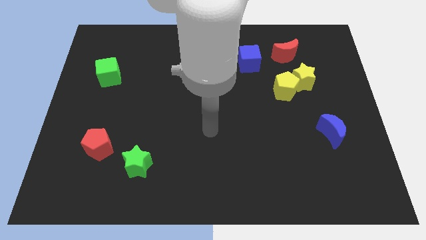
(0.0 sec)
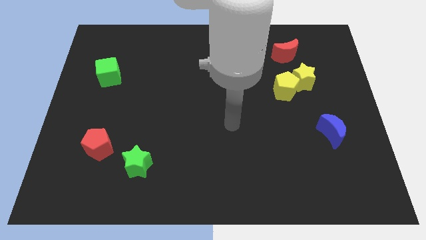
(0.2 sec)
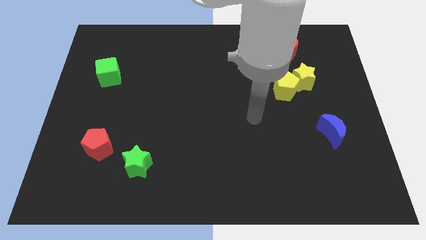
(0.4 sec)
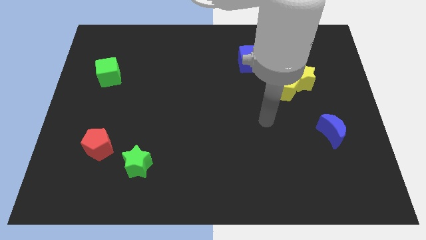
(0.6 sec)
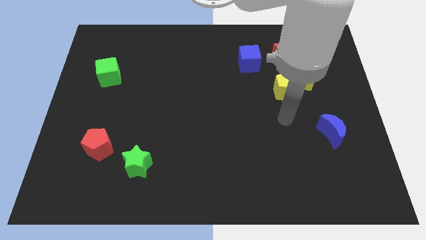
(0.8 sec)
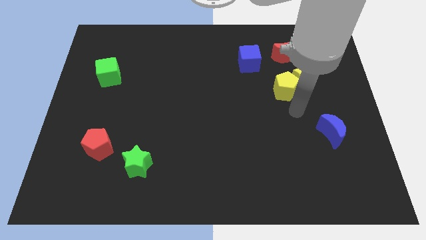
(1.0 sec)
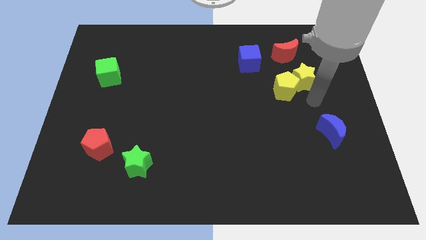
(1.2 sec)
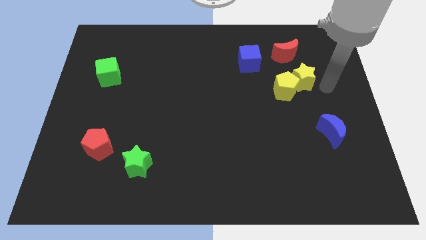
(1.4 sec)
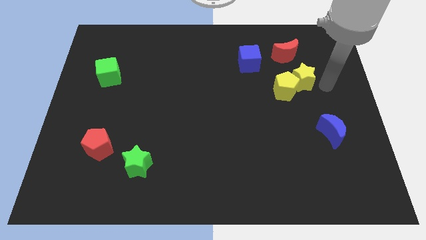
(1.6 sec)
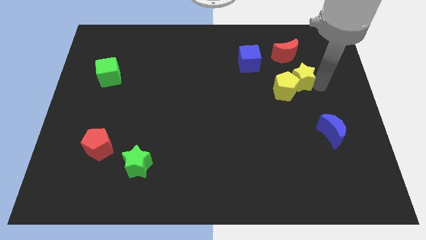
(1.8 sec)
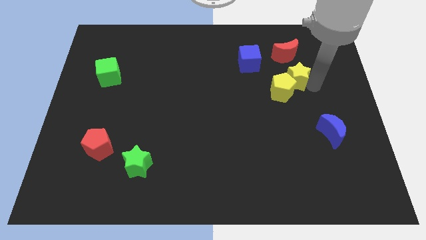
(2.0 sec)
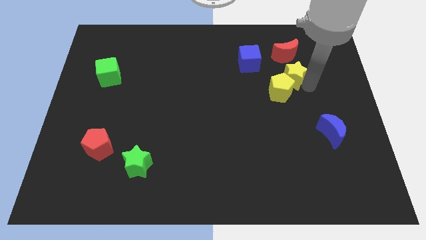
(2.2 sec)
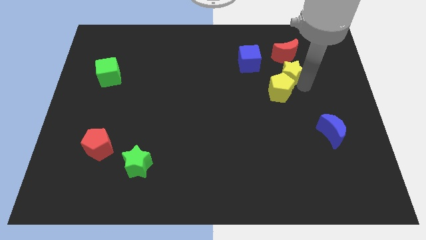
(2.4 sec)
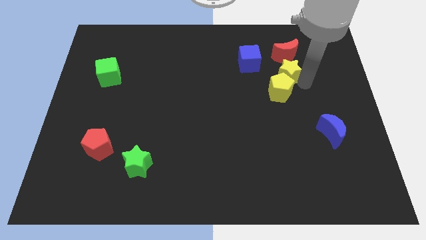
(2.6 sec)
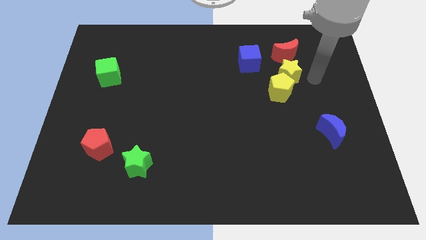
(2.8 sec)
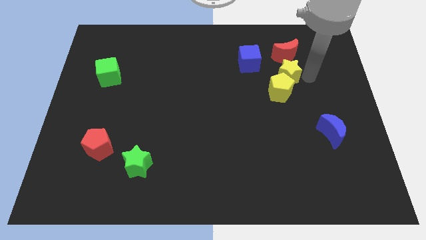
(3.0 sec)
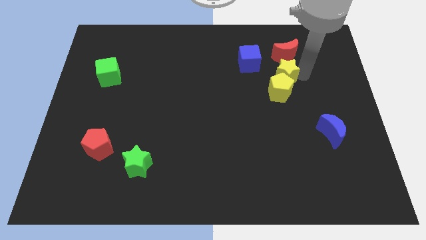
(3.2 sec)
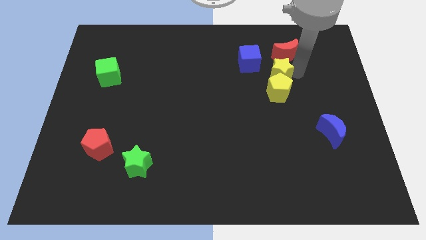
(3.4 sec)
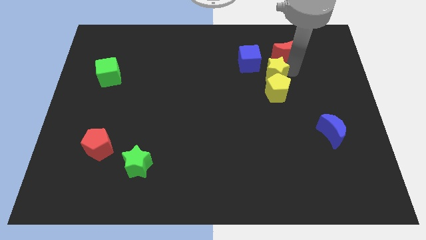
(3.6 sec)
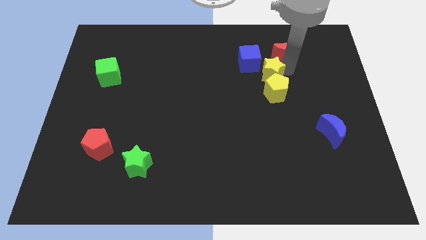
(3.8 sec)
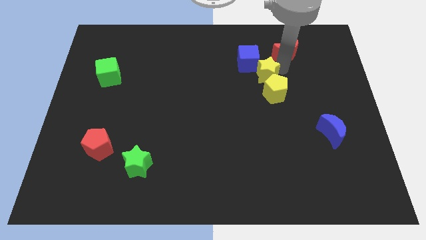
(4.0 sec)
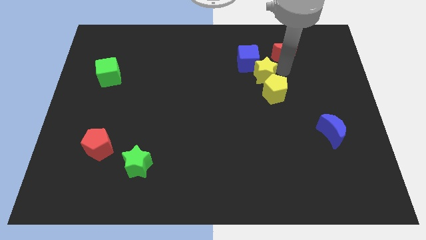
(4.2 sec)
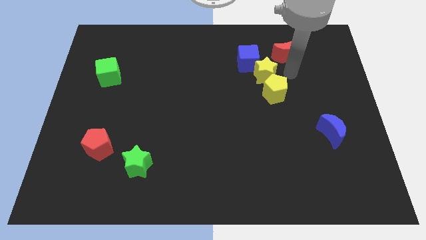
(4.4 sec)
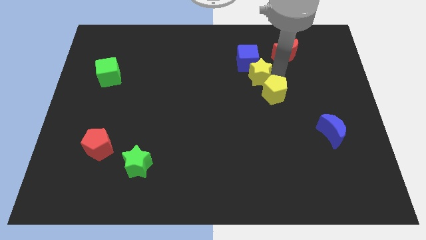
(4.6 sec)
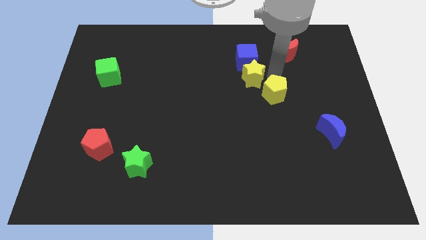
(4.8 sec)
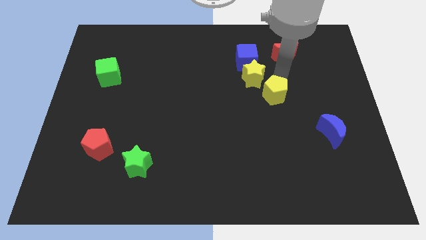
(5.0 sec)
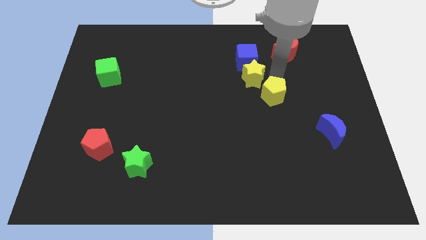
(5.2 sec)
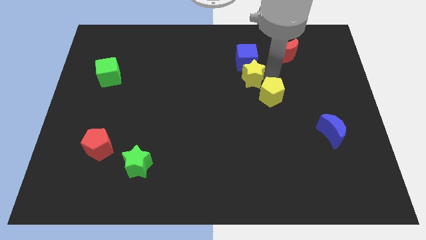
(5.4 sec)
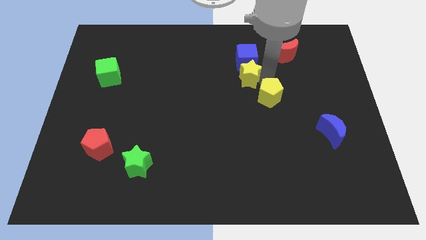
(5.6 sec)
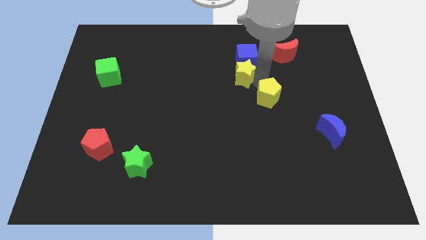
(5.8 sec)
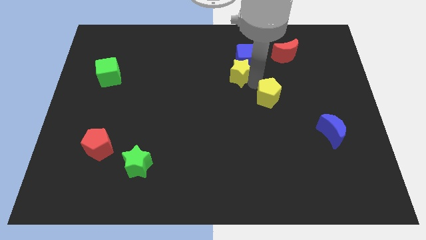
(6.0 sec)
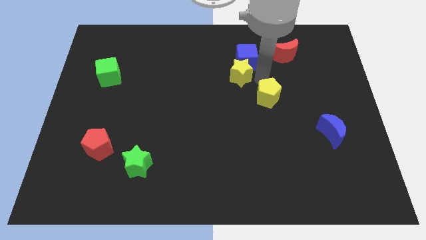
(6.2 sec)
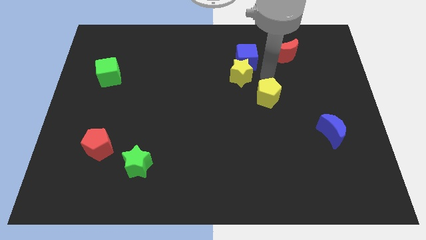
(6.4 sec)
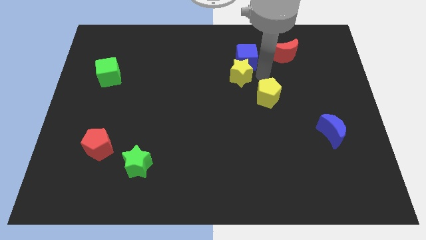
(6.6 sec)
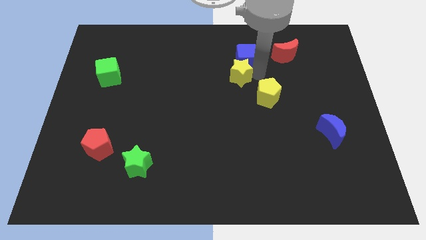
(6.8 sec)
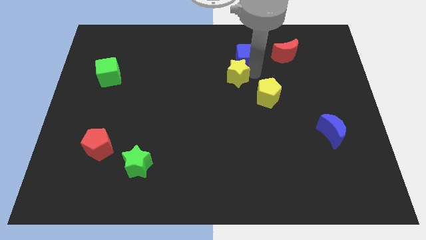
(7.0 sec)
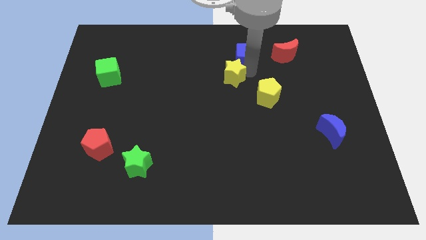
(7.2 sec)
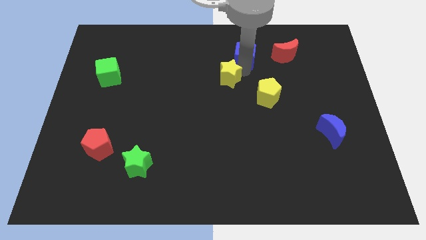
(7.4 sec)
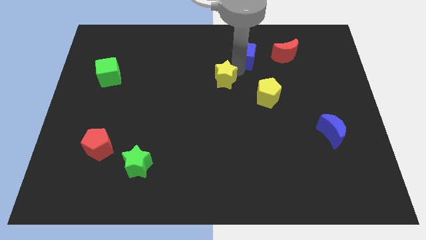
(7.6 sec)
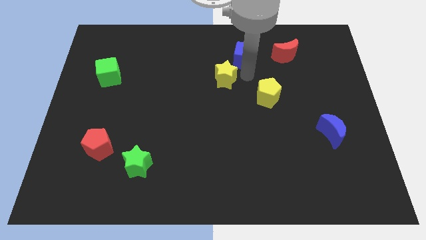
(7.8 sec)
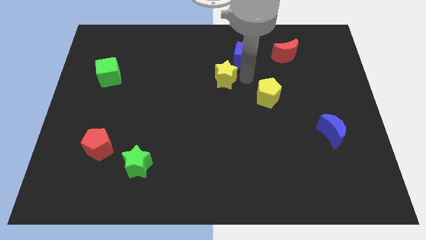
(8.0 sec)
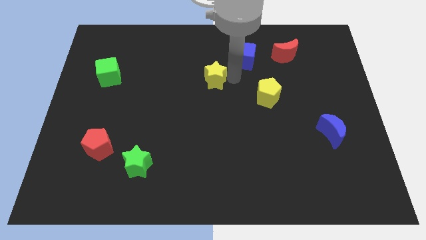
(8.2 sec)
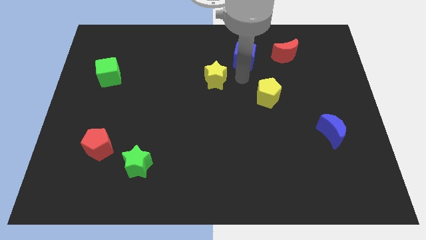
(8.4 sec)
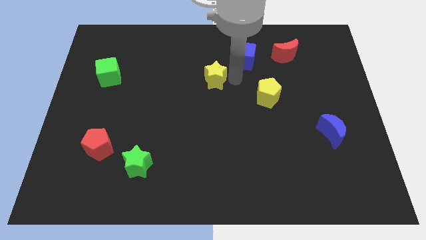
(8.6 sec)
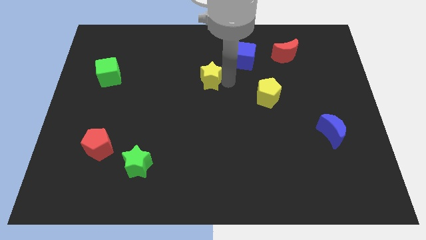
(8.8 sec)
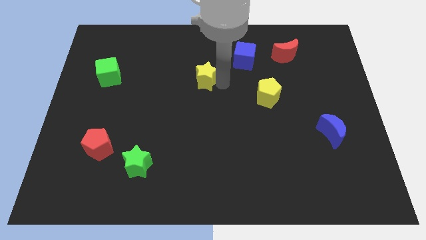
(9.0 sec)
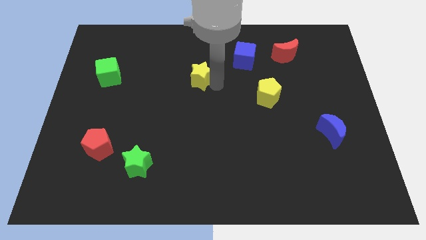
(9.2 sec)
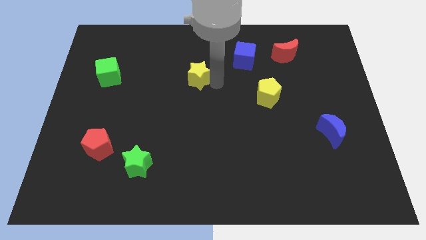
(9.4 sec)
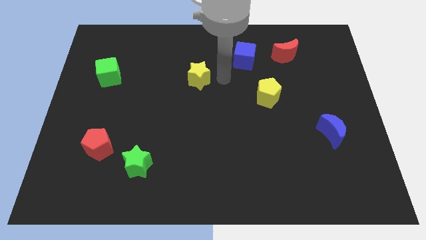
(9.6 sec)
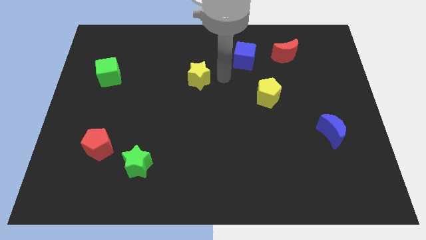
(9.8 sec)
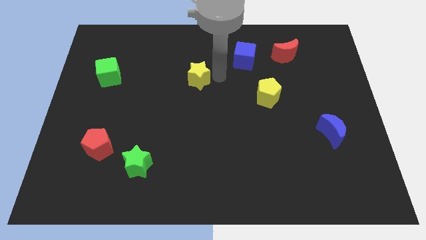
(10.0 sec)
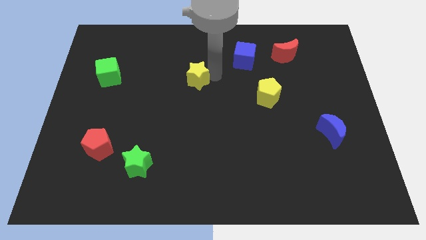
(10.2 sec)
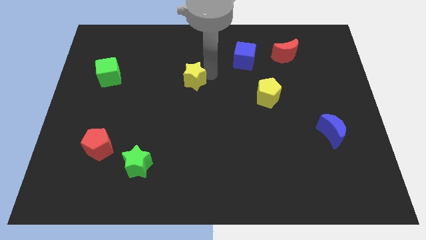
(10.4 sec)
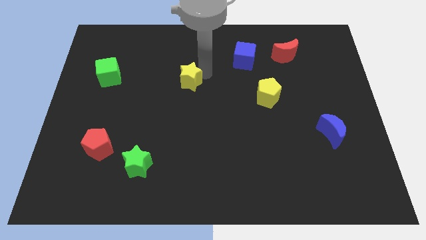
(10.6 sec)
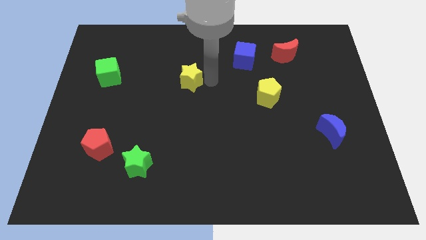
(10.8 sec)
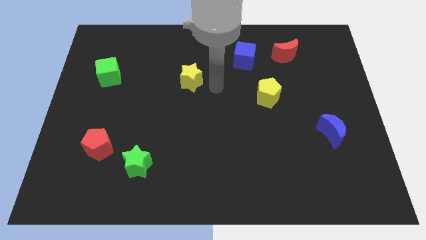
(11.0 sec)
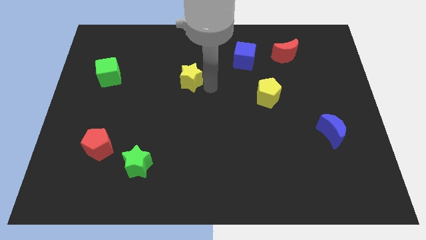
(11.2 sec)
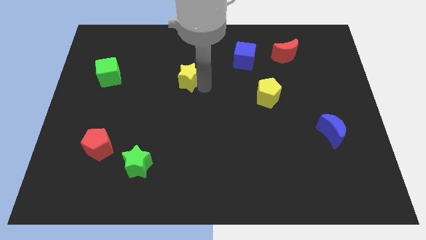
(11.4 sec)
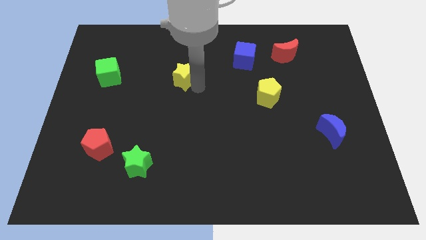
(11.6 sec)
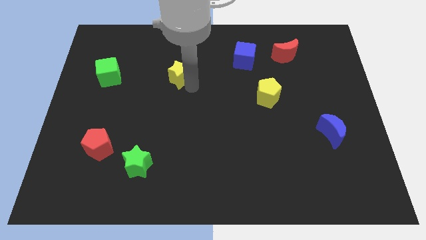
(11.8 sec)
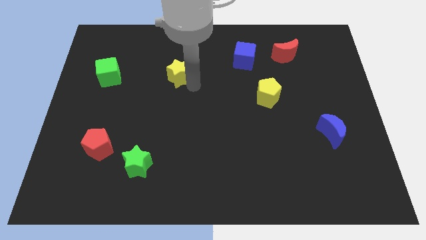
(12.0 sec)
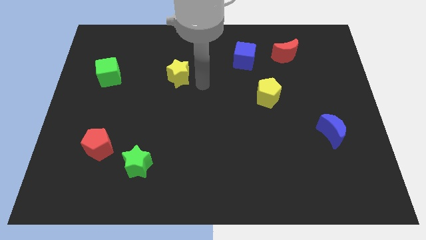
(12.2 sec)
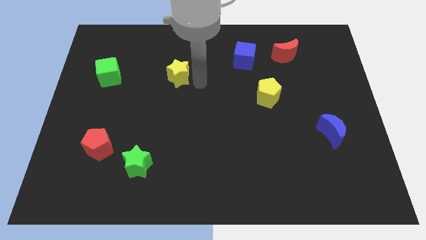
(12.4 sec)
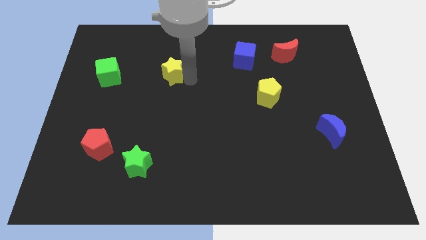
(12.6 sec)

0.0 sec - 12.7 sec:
move the yellow star right of the green cube

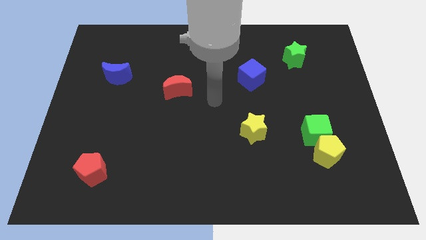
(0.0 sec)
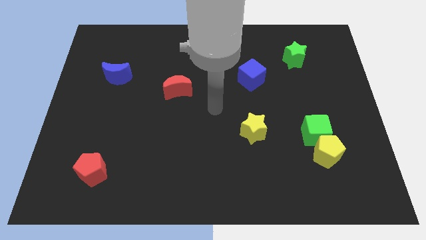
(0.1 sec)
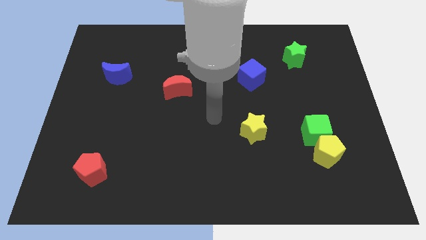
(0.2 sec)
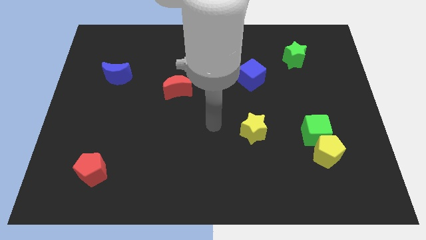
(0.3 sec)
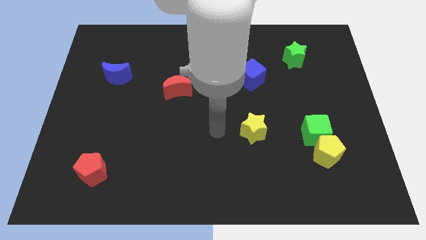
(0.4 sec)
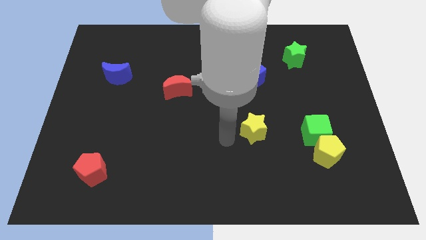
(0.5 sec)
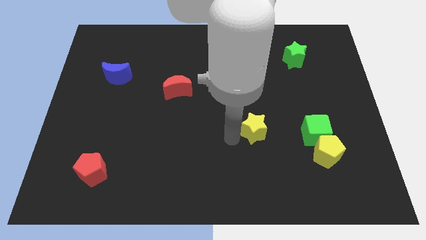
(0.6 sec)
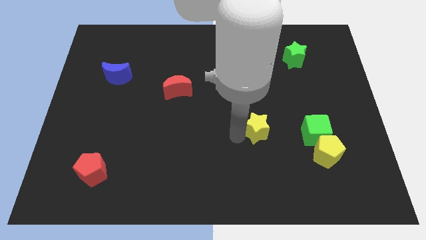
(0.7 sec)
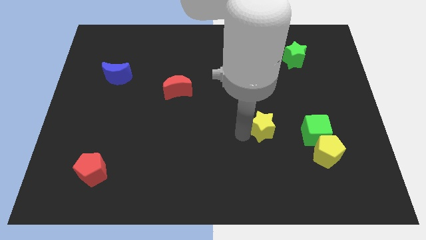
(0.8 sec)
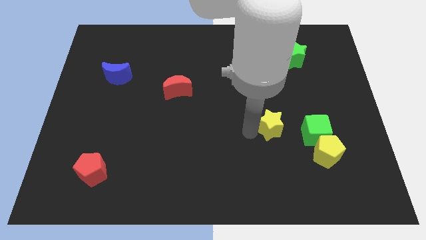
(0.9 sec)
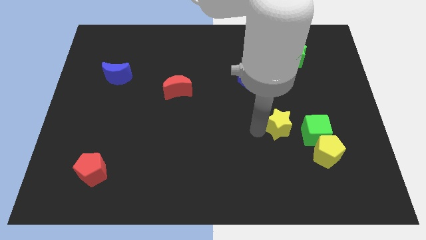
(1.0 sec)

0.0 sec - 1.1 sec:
push the yellow star diagonally up and to the left of the green cube
